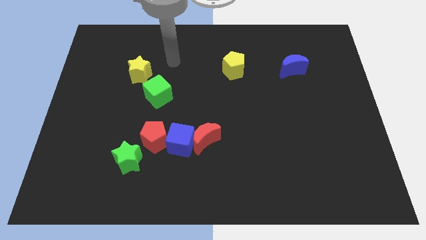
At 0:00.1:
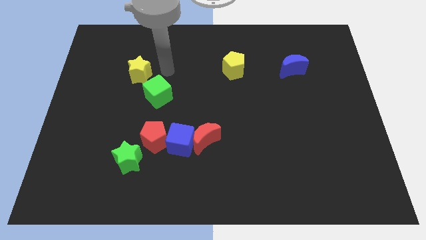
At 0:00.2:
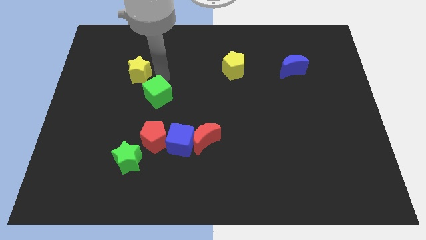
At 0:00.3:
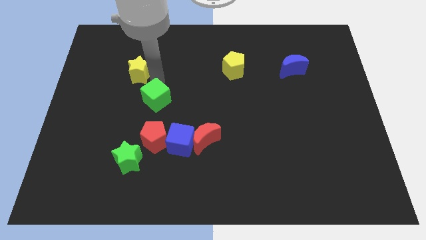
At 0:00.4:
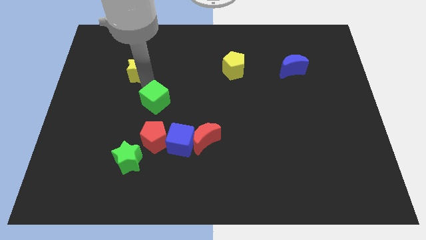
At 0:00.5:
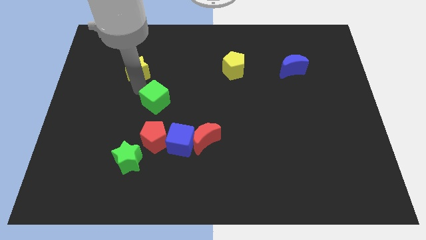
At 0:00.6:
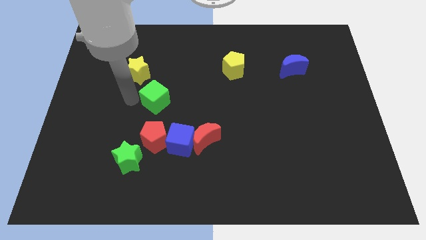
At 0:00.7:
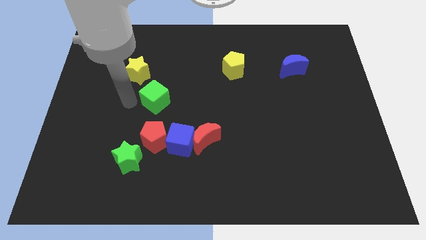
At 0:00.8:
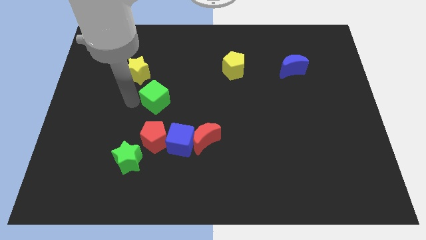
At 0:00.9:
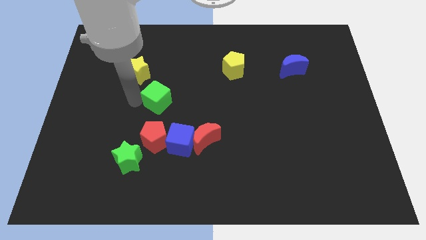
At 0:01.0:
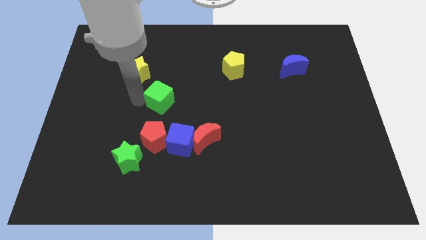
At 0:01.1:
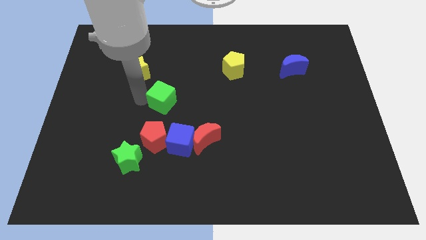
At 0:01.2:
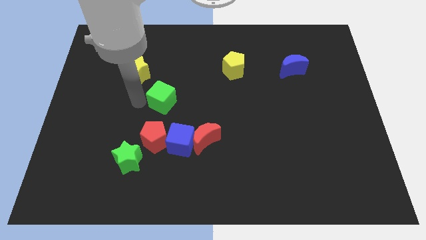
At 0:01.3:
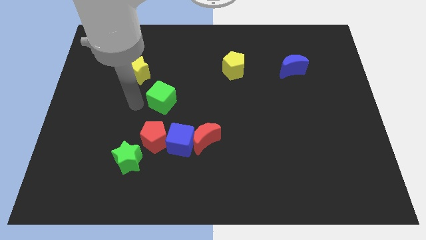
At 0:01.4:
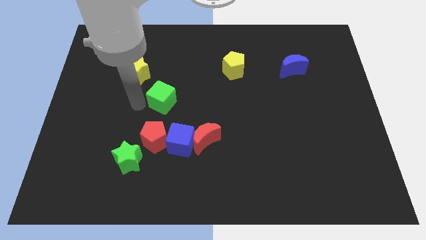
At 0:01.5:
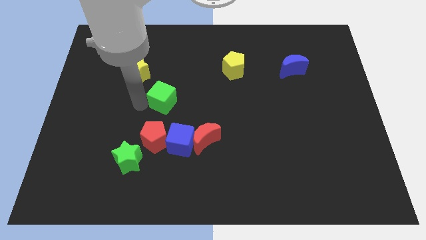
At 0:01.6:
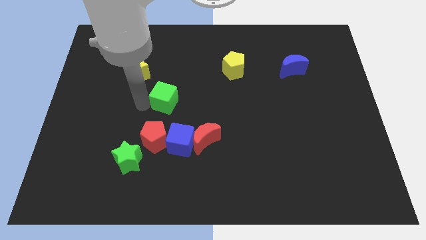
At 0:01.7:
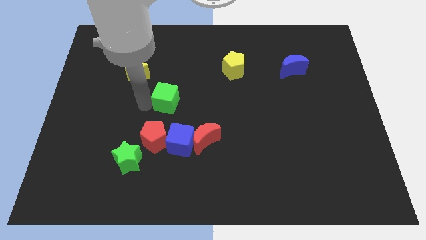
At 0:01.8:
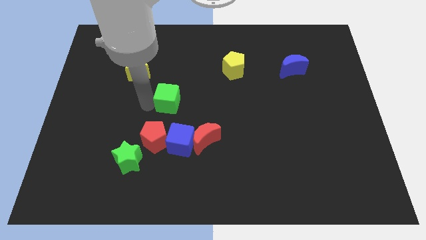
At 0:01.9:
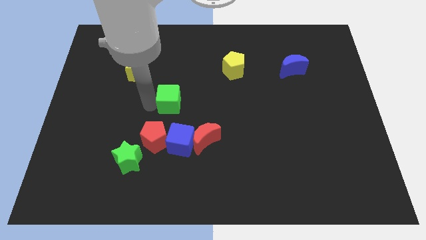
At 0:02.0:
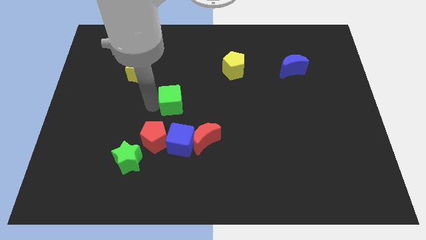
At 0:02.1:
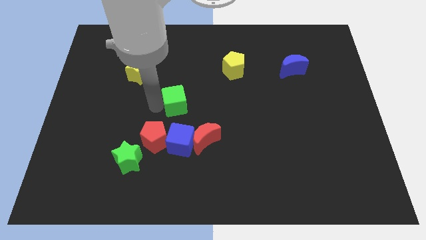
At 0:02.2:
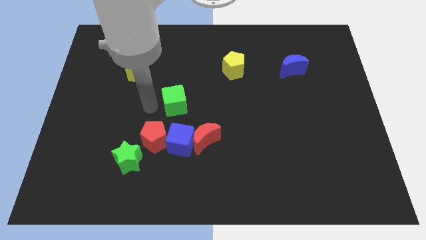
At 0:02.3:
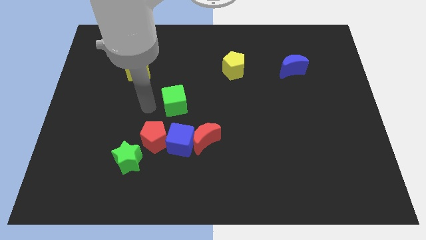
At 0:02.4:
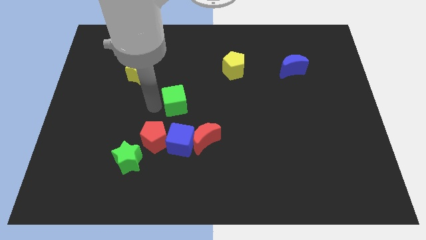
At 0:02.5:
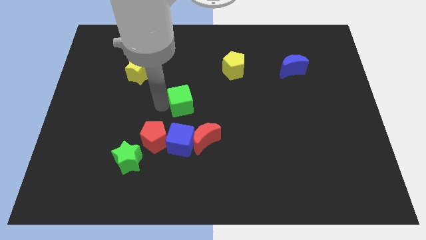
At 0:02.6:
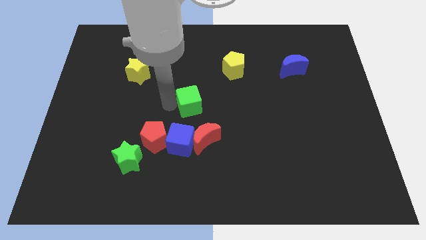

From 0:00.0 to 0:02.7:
push the green cube right slightly

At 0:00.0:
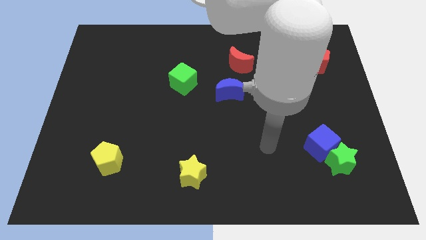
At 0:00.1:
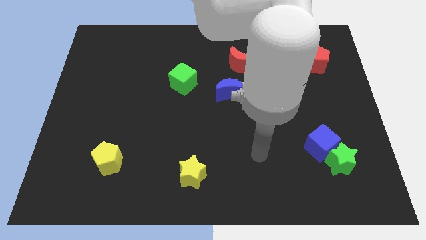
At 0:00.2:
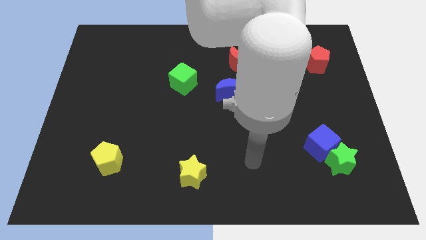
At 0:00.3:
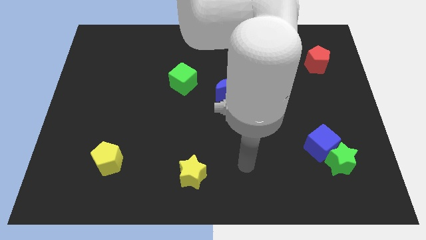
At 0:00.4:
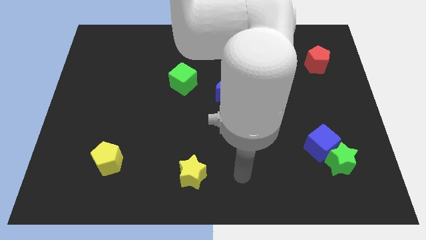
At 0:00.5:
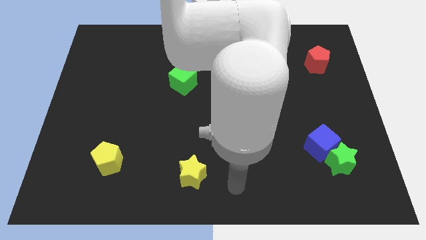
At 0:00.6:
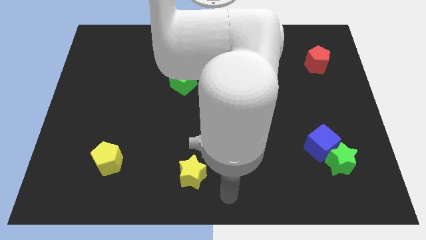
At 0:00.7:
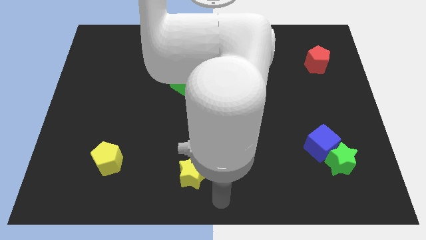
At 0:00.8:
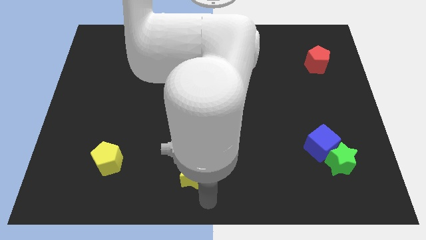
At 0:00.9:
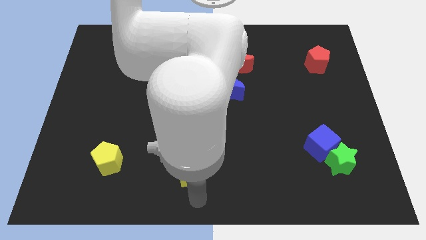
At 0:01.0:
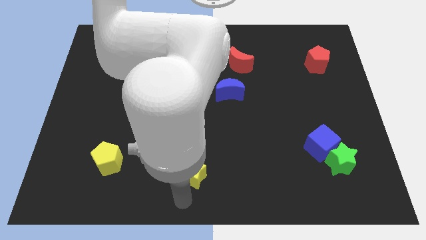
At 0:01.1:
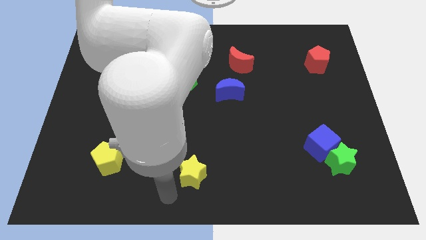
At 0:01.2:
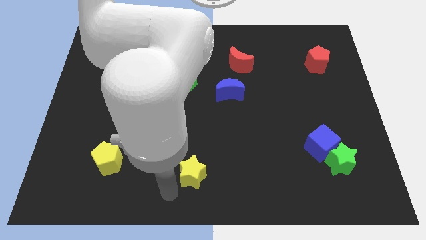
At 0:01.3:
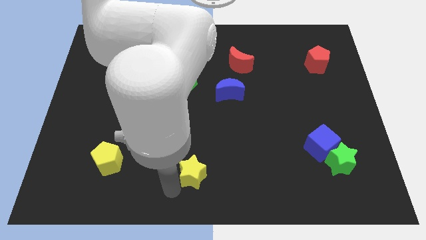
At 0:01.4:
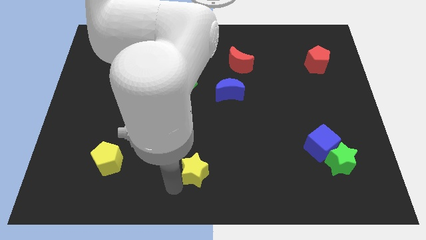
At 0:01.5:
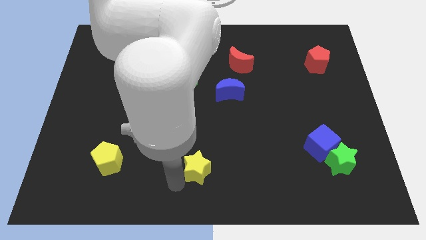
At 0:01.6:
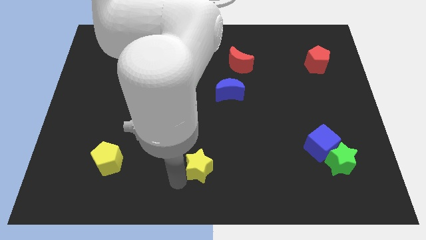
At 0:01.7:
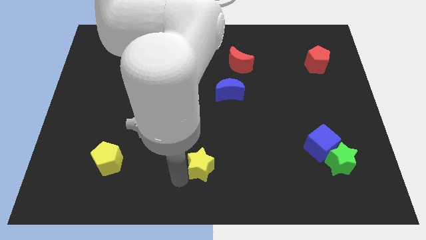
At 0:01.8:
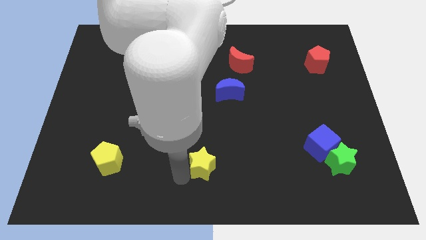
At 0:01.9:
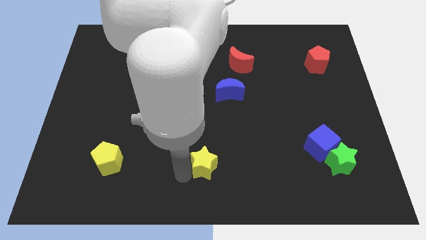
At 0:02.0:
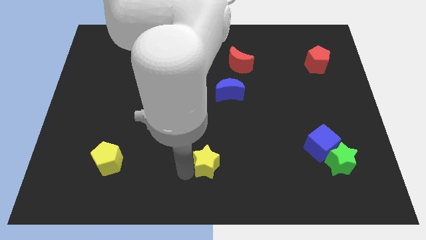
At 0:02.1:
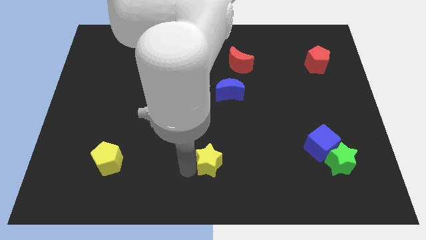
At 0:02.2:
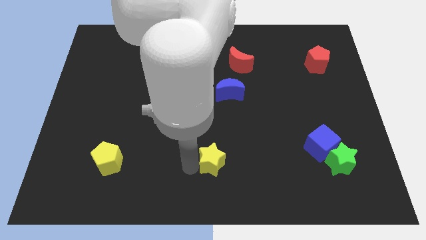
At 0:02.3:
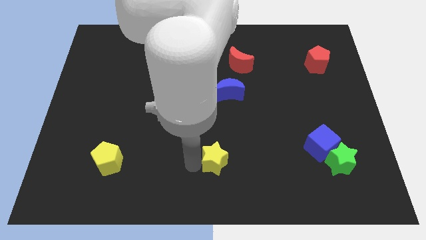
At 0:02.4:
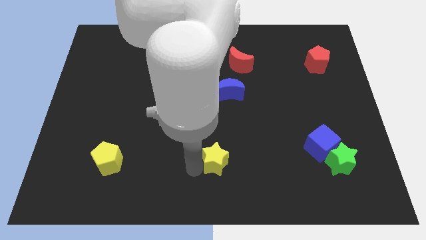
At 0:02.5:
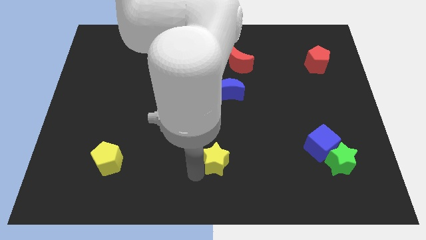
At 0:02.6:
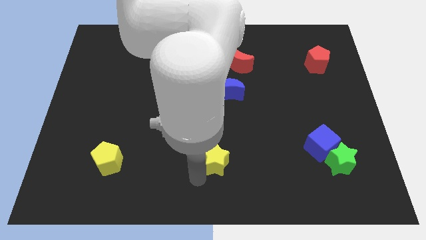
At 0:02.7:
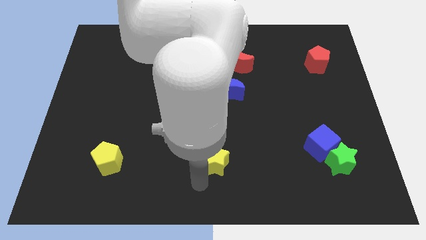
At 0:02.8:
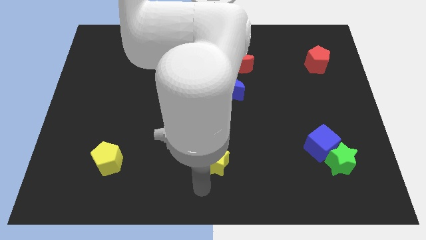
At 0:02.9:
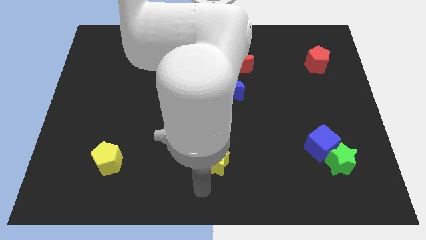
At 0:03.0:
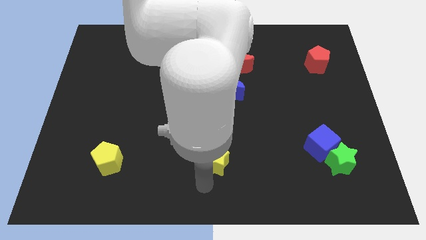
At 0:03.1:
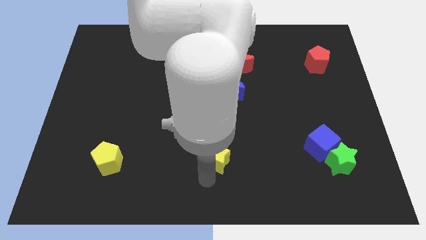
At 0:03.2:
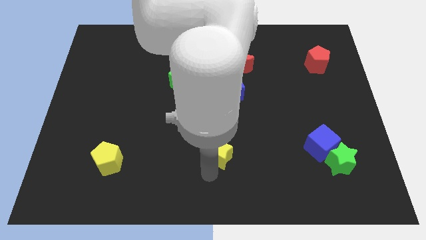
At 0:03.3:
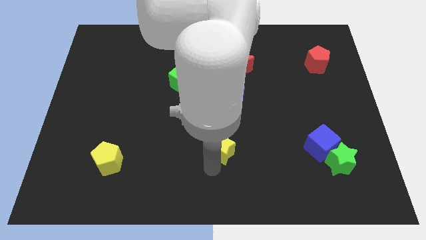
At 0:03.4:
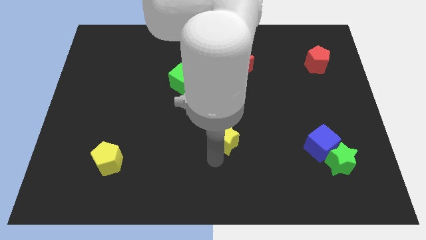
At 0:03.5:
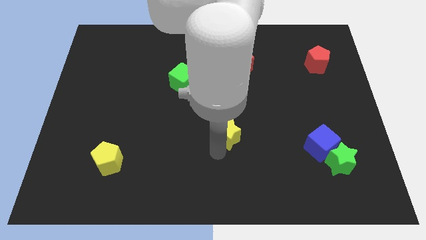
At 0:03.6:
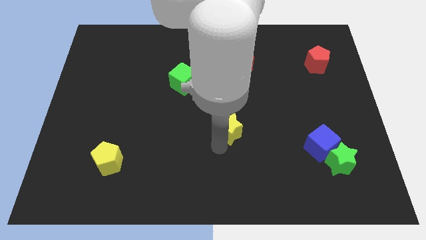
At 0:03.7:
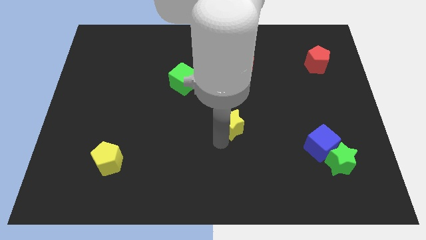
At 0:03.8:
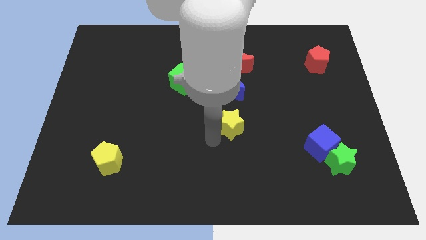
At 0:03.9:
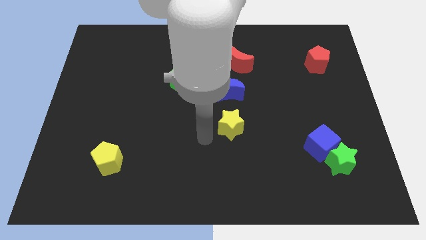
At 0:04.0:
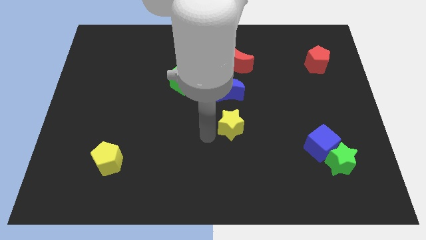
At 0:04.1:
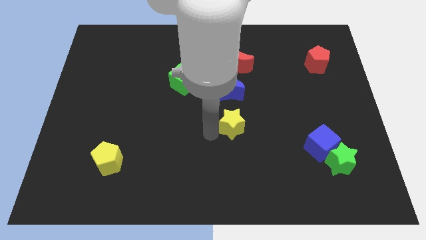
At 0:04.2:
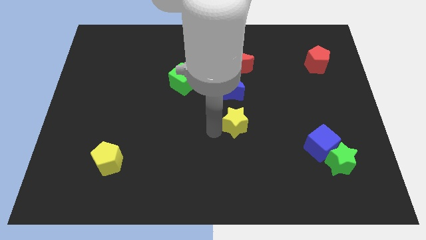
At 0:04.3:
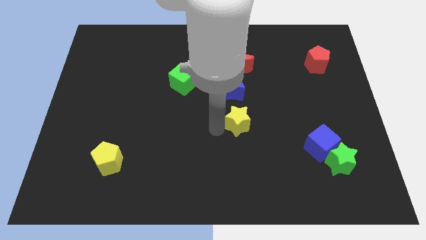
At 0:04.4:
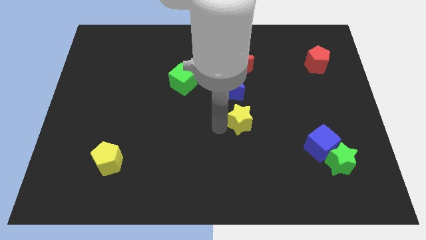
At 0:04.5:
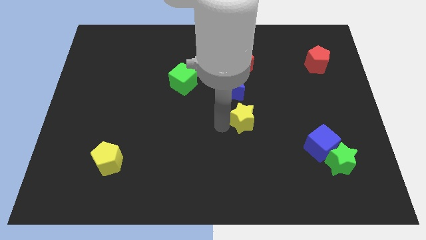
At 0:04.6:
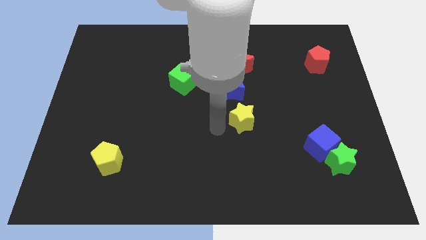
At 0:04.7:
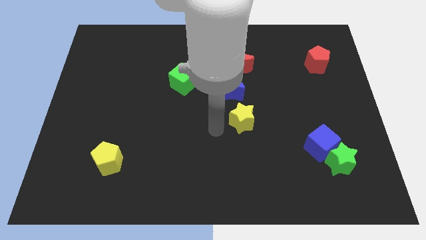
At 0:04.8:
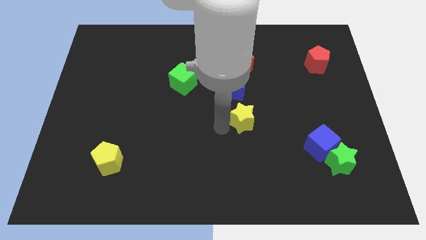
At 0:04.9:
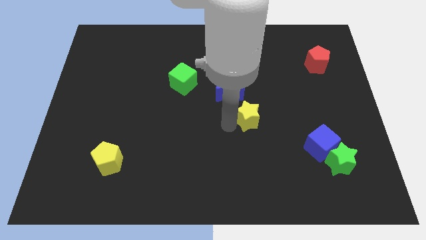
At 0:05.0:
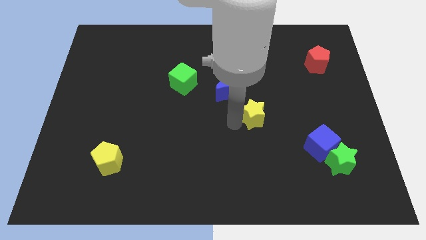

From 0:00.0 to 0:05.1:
push the yellow star upwards and to the right

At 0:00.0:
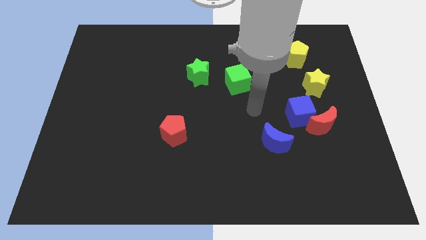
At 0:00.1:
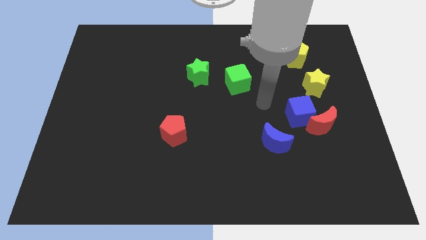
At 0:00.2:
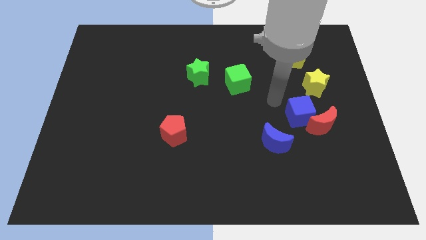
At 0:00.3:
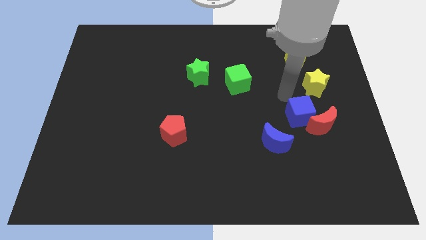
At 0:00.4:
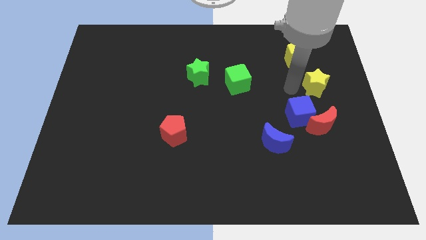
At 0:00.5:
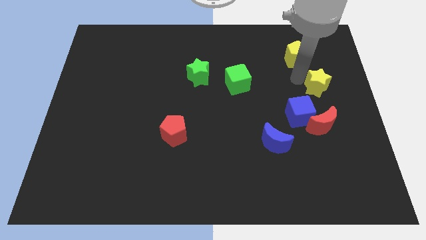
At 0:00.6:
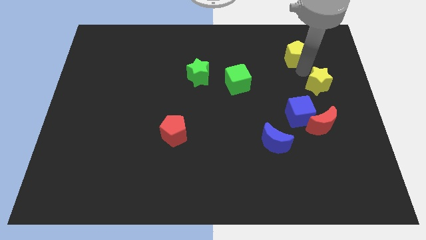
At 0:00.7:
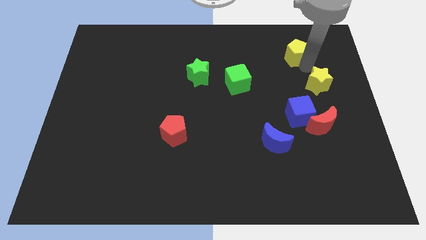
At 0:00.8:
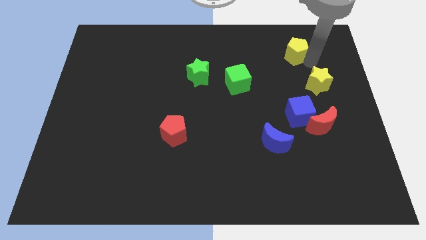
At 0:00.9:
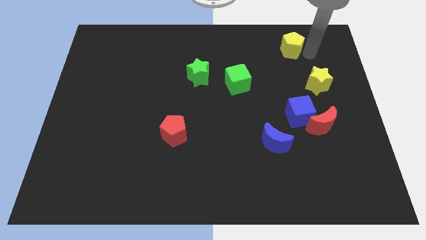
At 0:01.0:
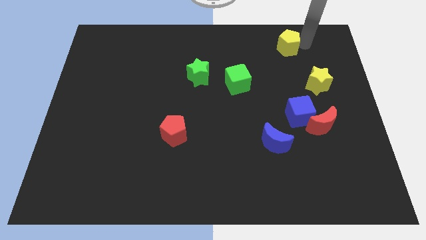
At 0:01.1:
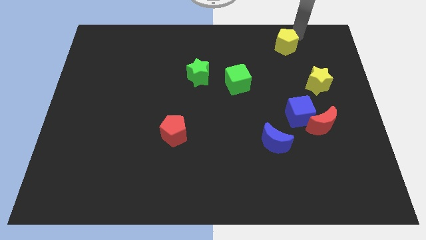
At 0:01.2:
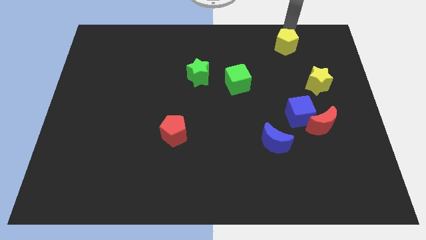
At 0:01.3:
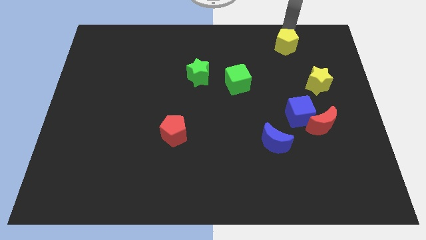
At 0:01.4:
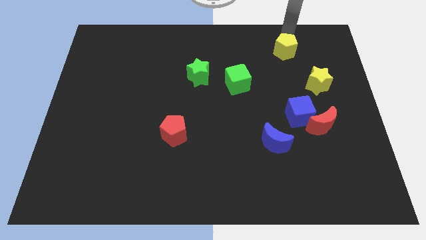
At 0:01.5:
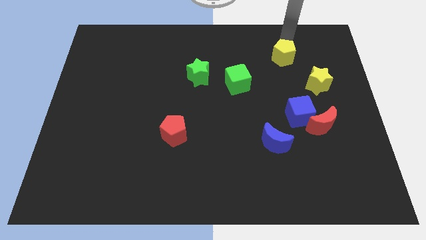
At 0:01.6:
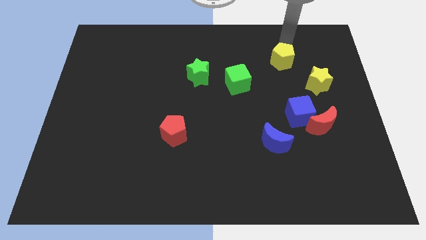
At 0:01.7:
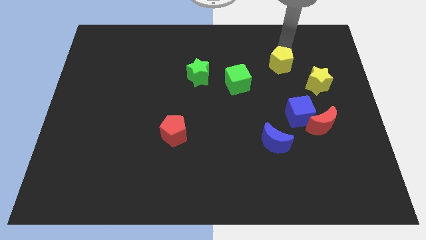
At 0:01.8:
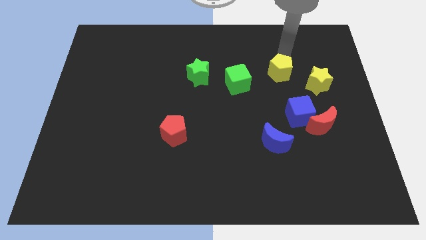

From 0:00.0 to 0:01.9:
slide the yellow pentagon down and to the left diagonally a bit
